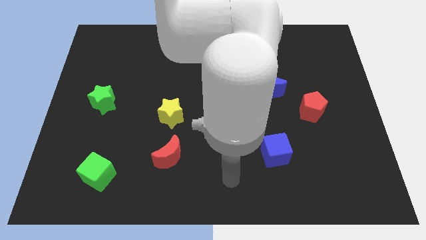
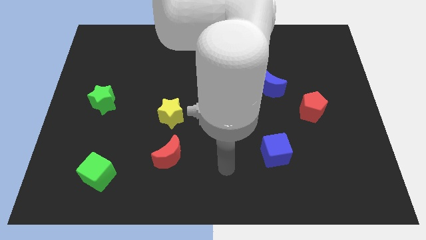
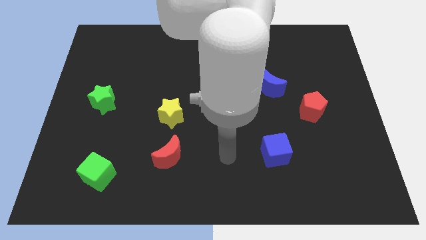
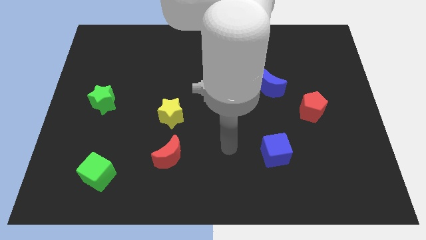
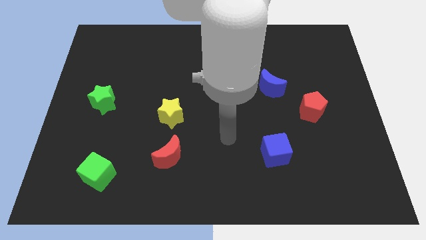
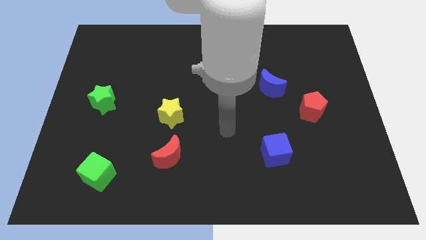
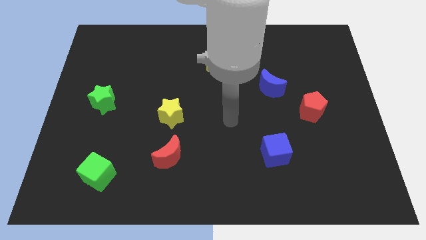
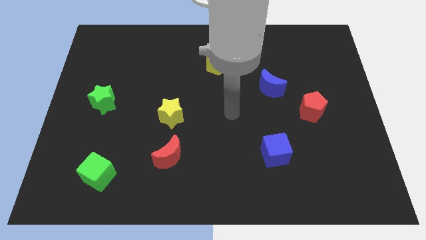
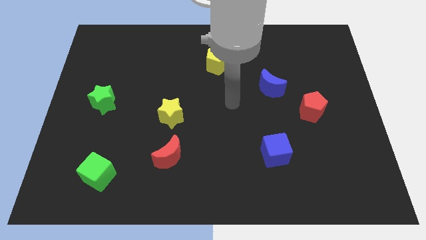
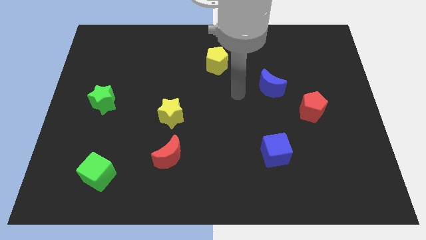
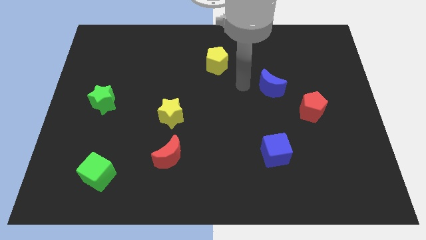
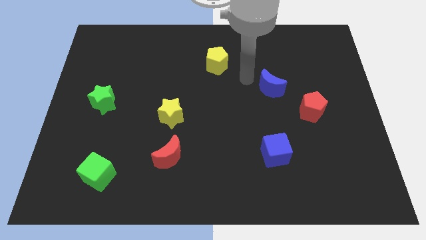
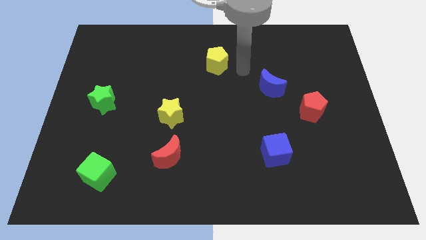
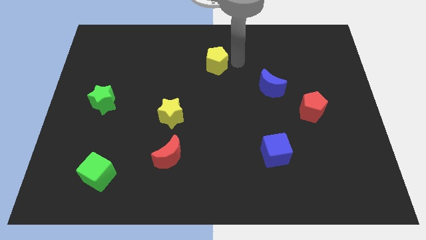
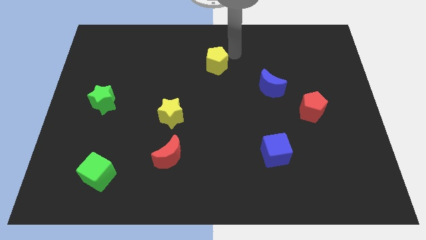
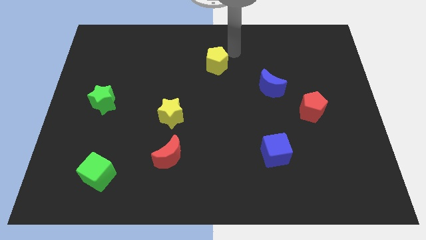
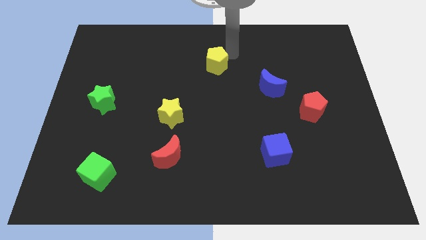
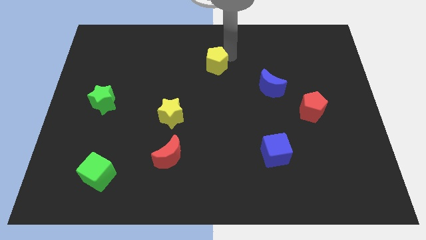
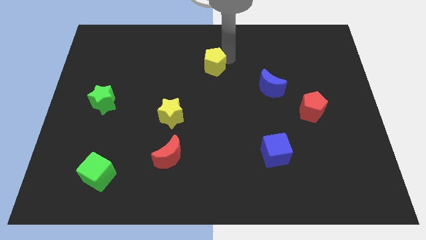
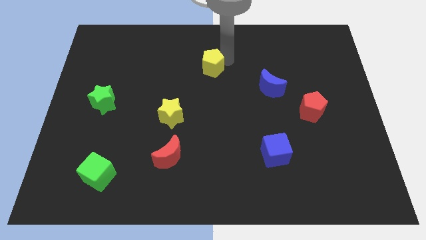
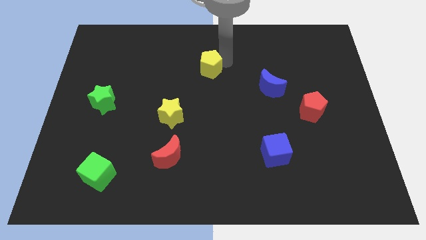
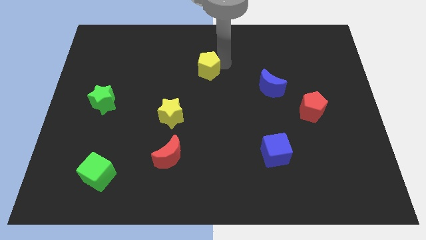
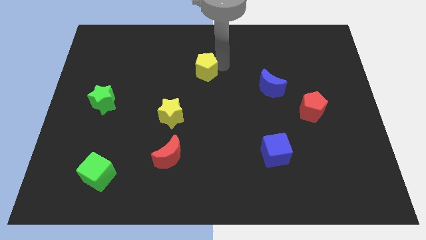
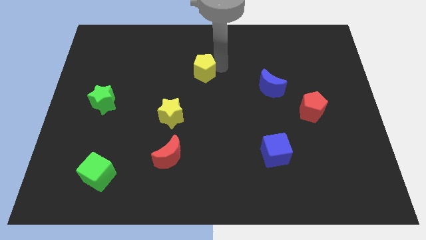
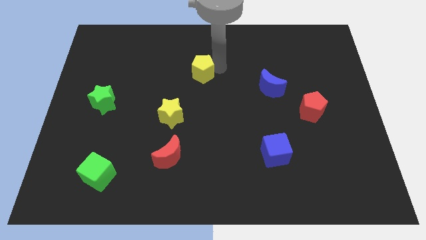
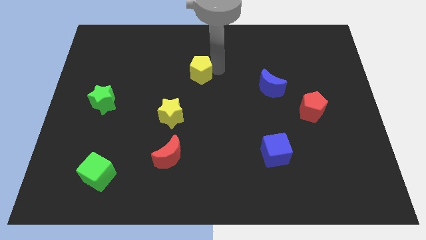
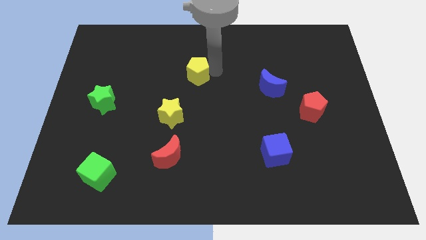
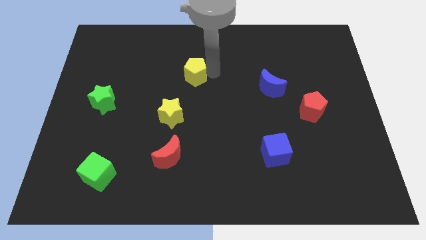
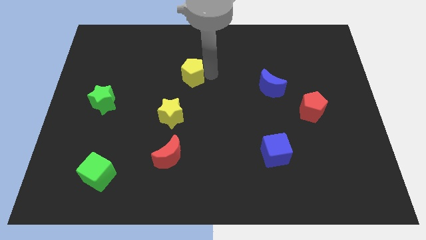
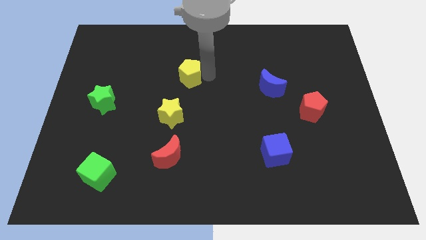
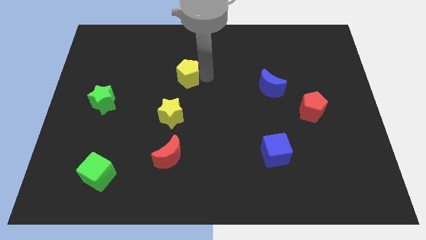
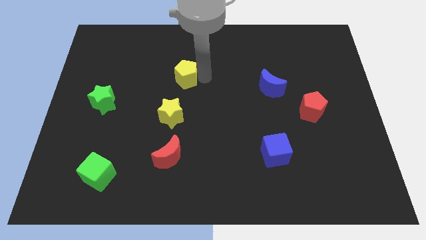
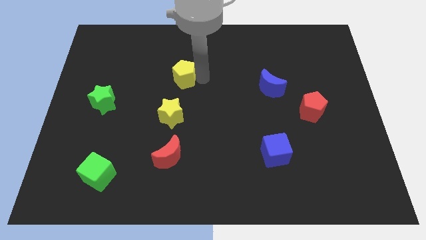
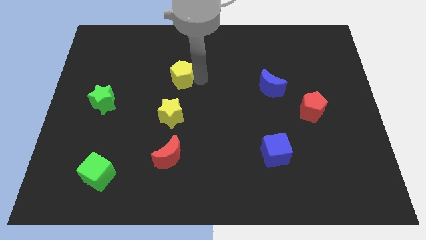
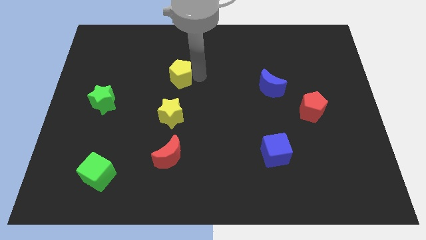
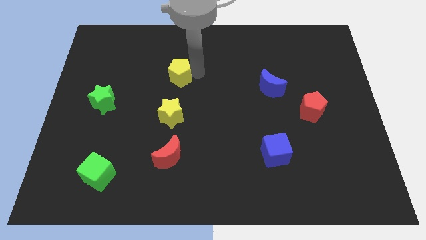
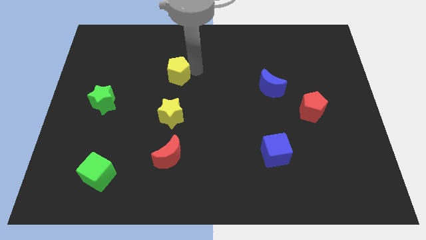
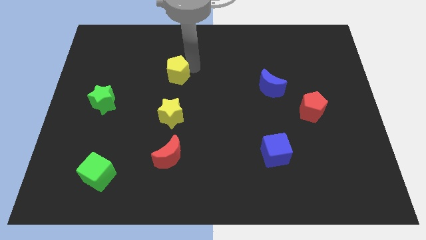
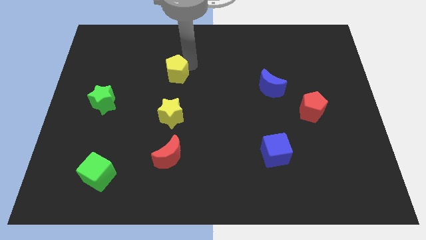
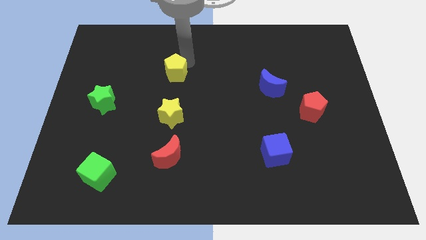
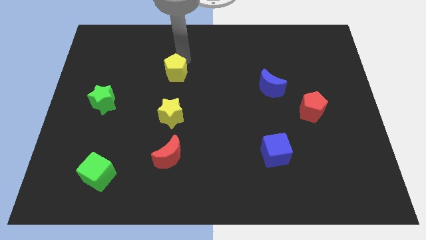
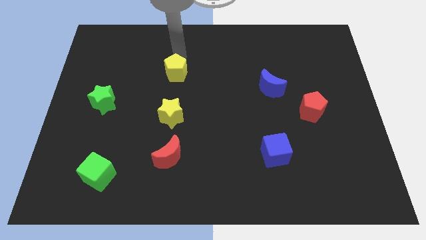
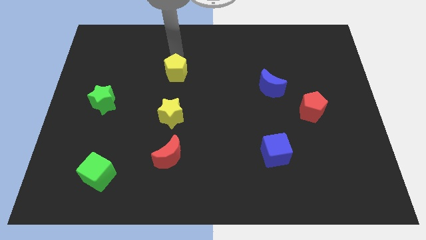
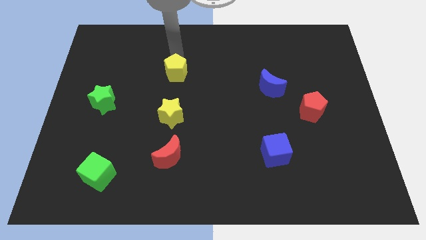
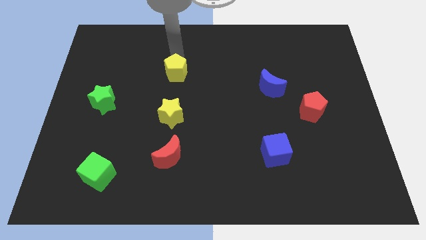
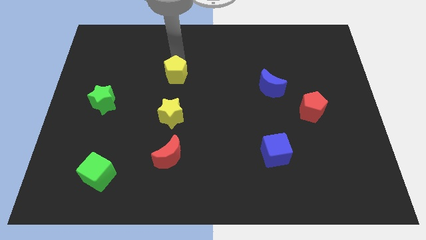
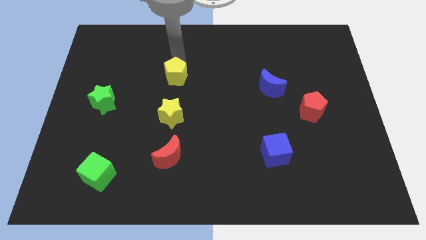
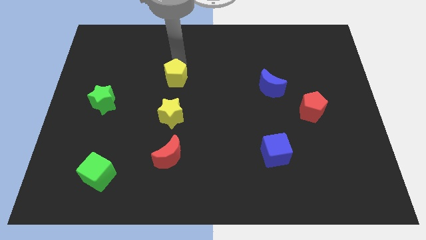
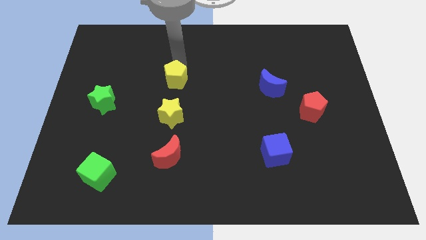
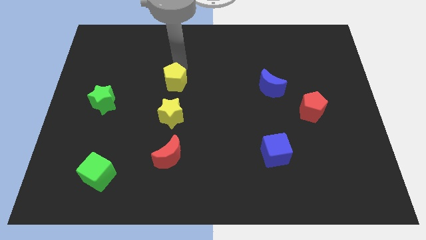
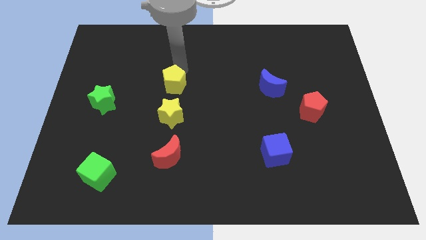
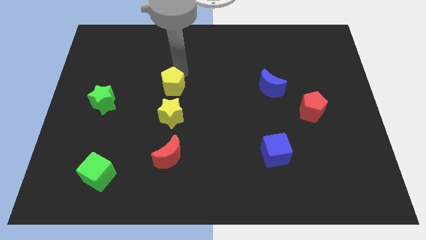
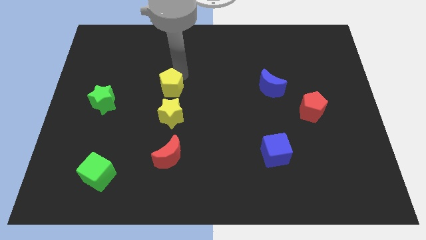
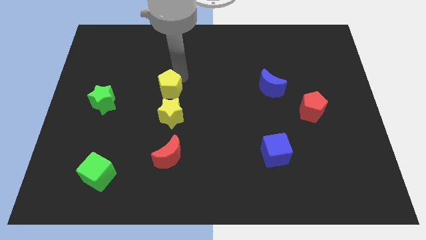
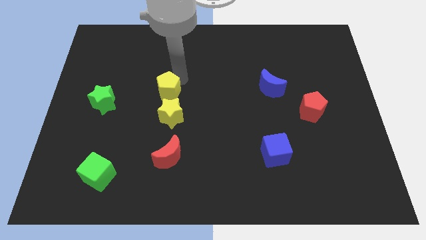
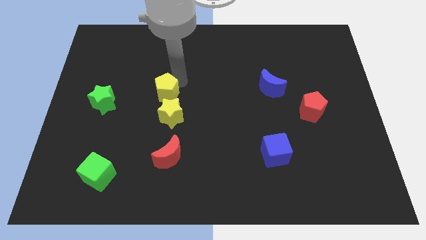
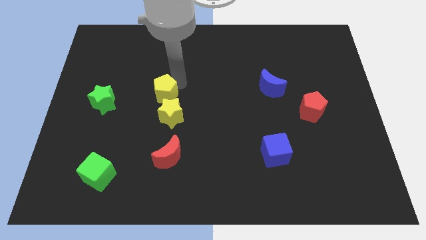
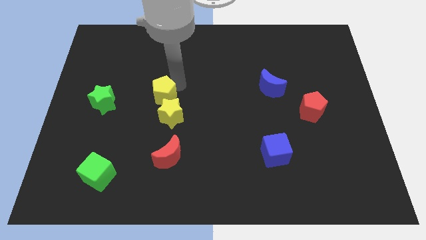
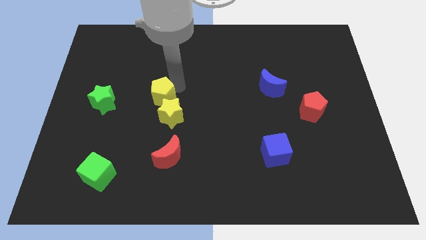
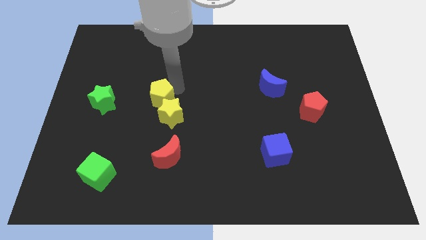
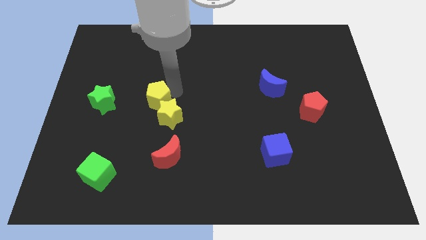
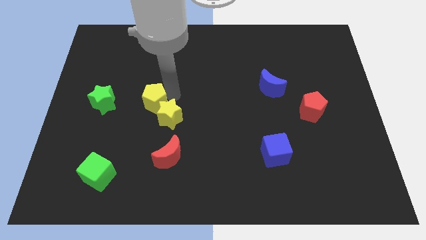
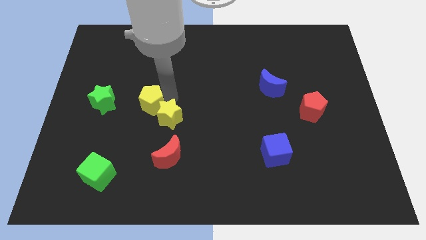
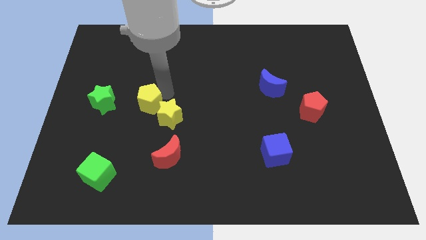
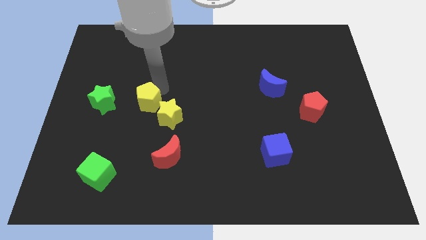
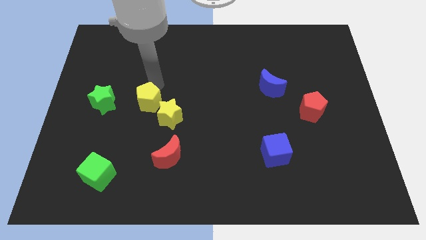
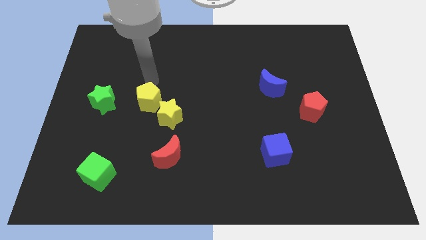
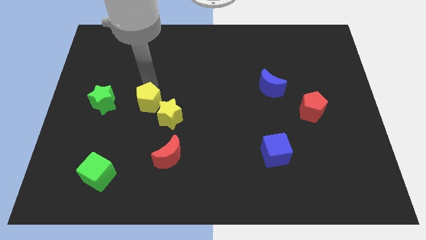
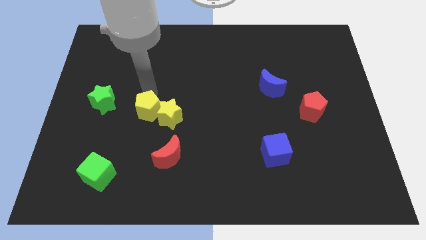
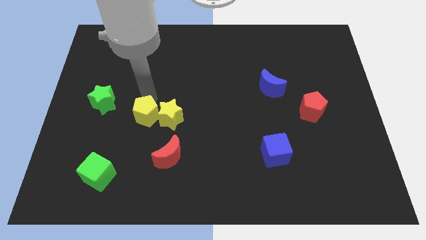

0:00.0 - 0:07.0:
push the yellow pentagon diagonally down and to the left of the yellow star

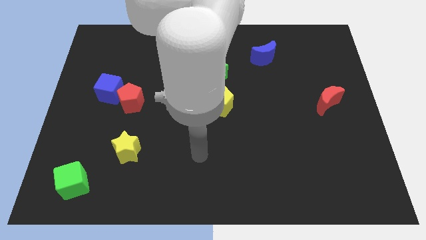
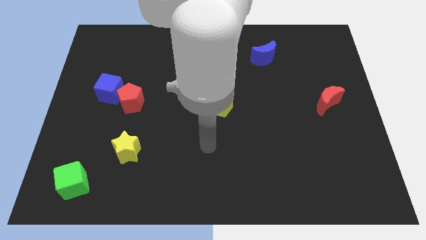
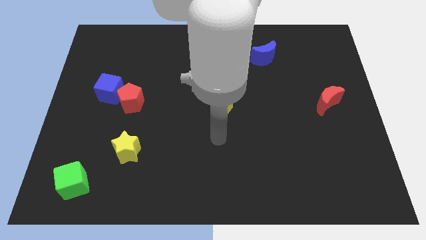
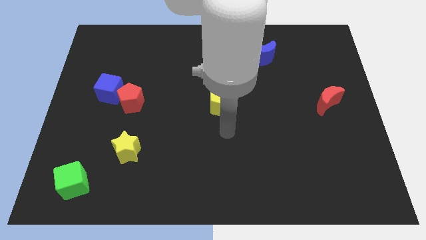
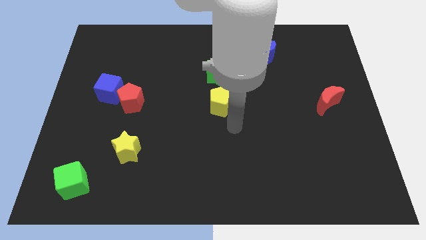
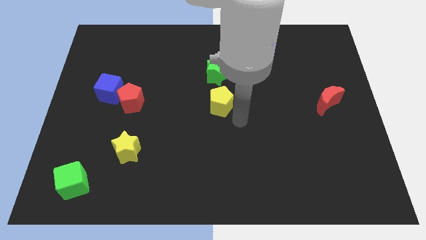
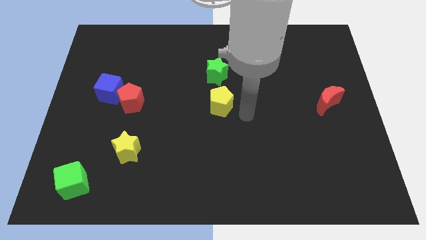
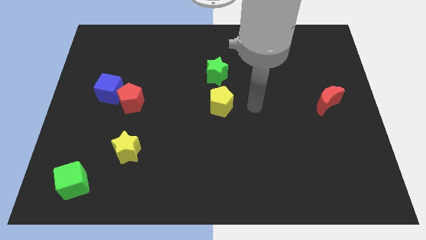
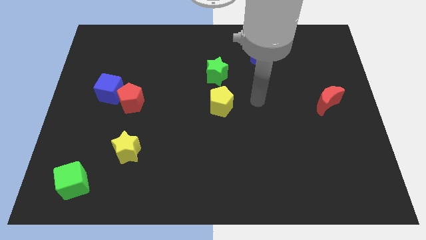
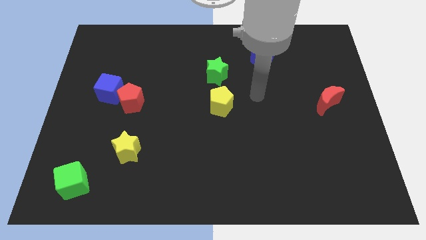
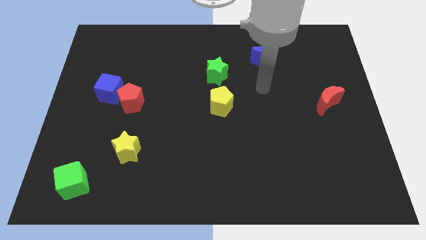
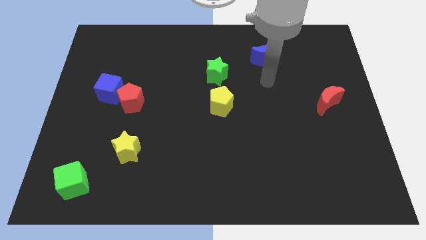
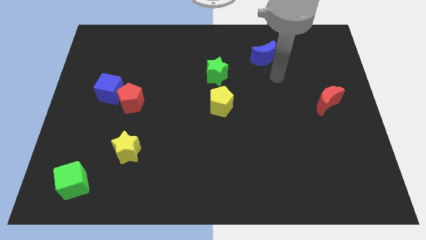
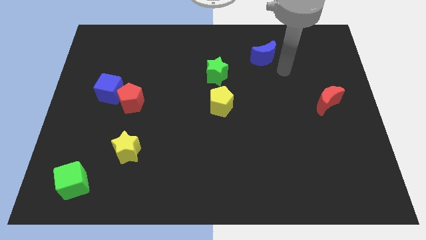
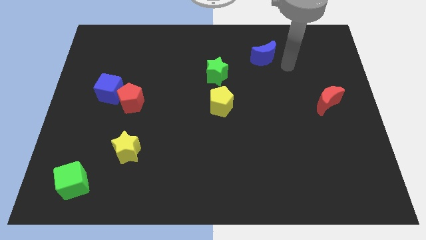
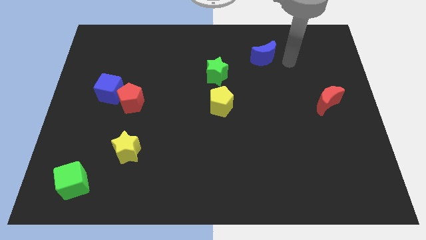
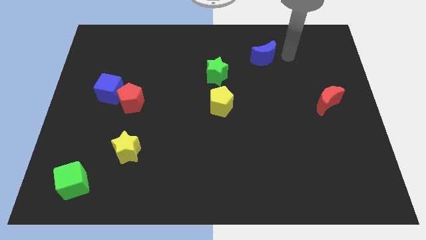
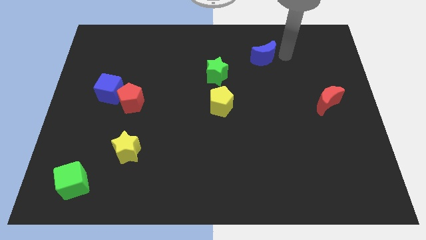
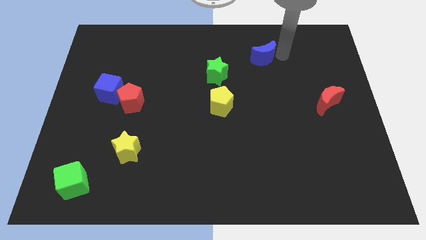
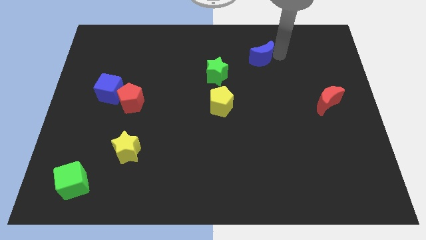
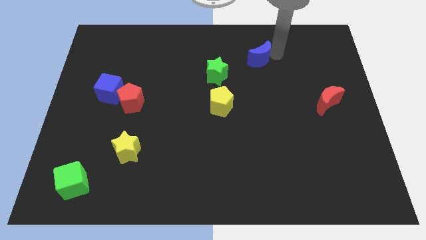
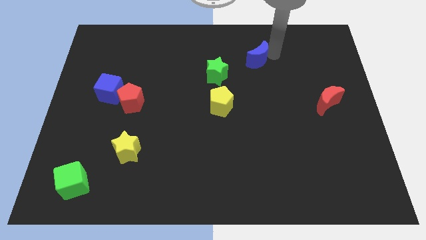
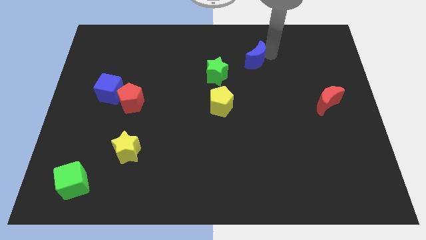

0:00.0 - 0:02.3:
slide the blue moon to the top right of the green star
